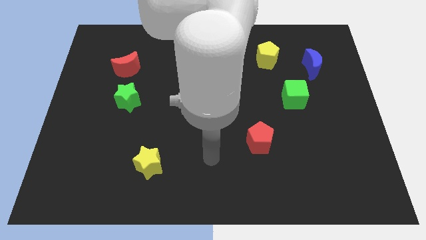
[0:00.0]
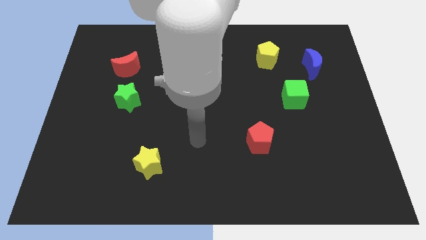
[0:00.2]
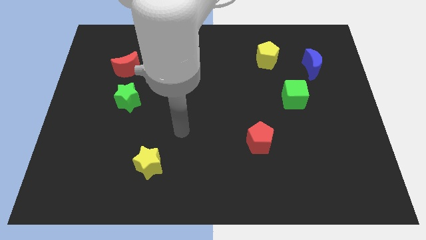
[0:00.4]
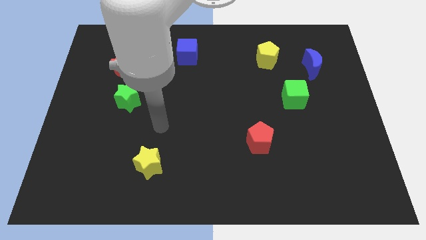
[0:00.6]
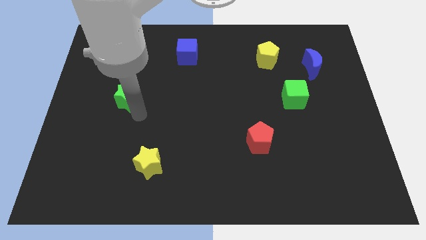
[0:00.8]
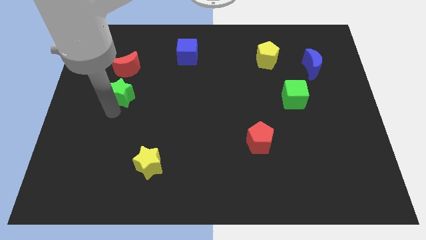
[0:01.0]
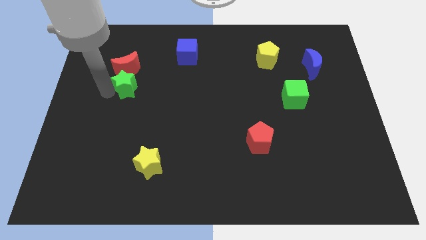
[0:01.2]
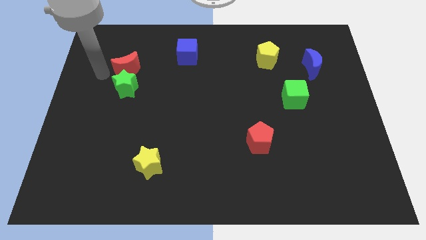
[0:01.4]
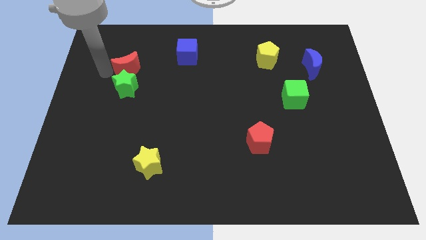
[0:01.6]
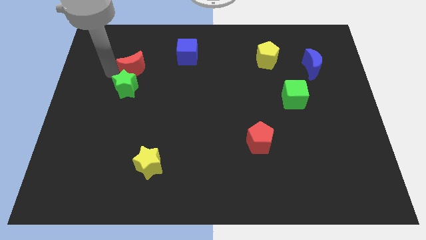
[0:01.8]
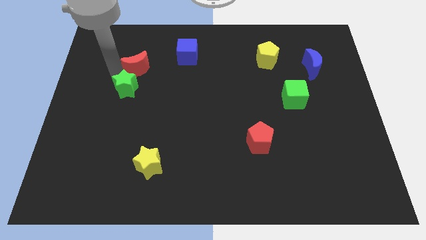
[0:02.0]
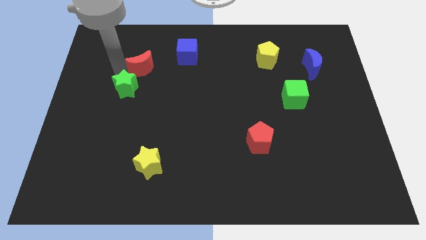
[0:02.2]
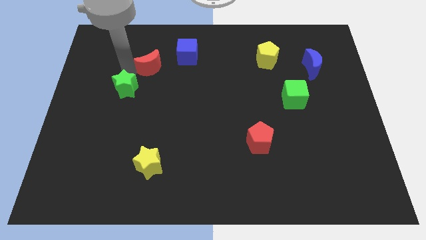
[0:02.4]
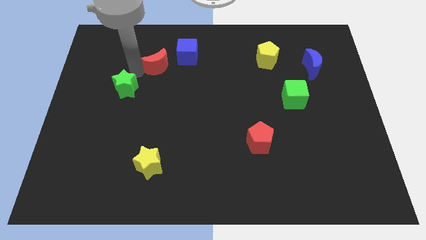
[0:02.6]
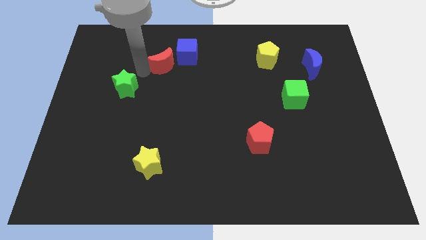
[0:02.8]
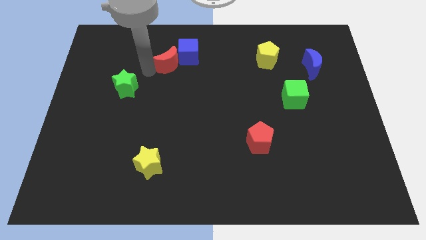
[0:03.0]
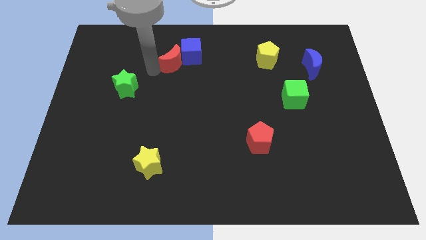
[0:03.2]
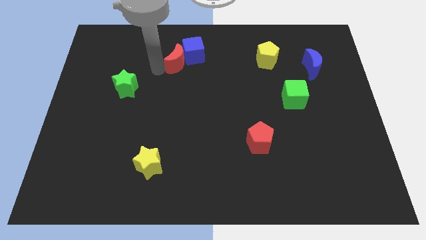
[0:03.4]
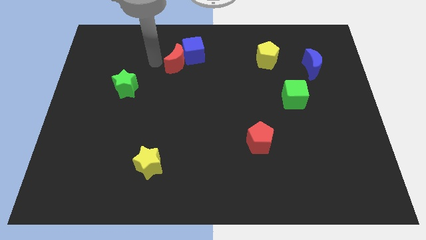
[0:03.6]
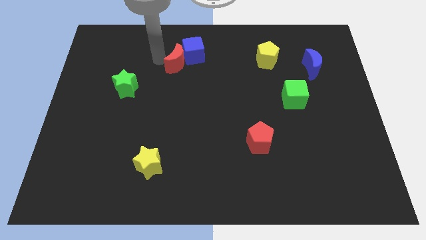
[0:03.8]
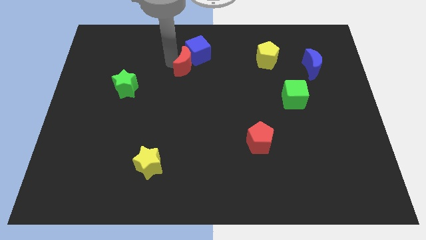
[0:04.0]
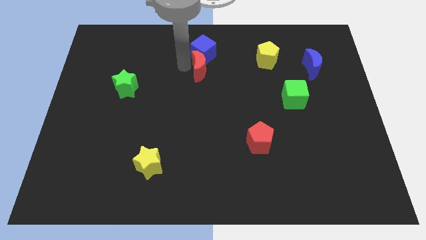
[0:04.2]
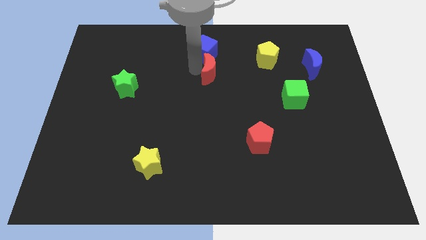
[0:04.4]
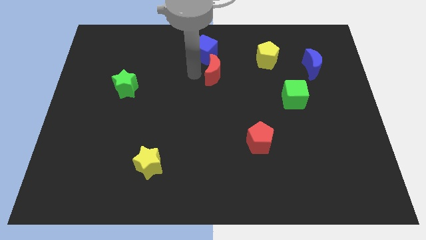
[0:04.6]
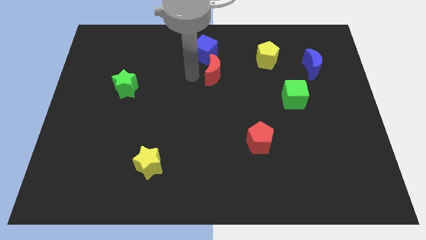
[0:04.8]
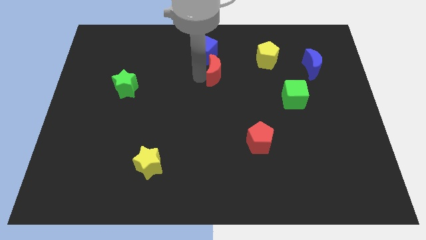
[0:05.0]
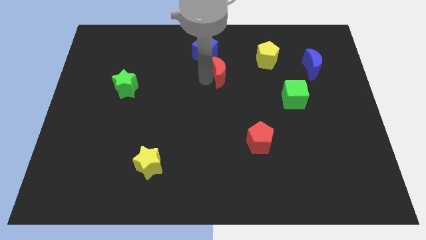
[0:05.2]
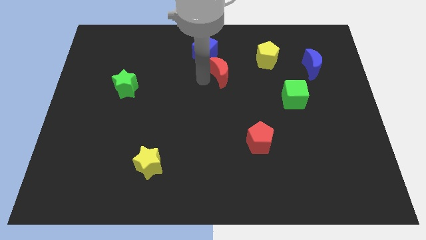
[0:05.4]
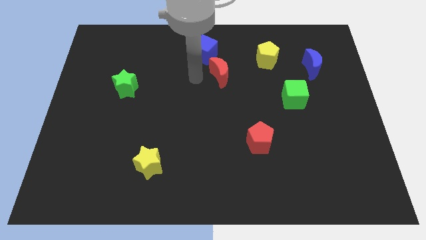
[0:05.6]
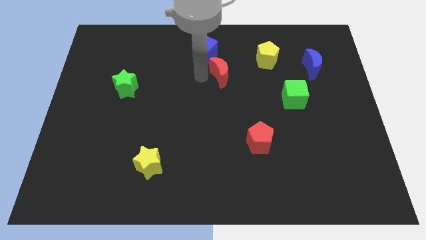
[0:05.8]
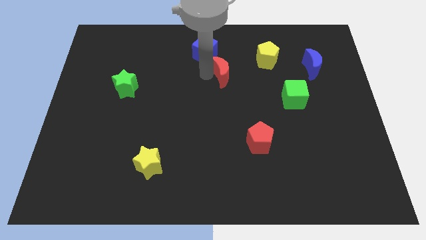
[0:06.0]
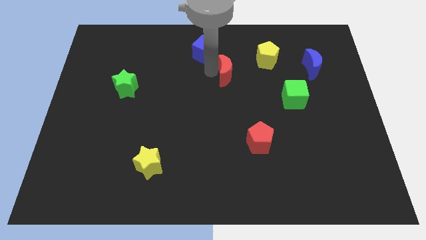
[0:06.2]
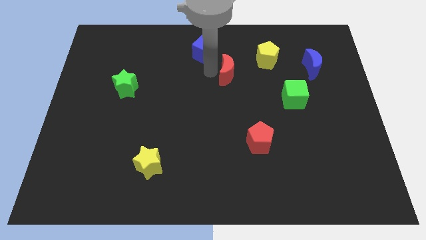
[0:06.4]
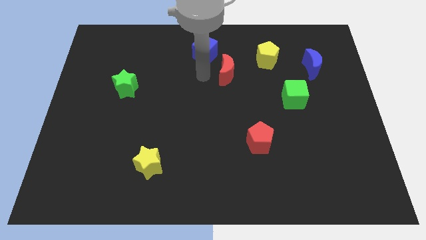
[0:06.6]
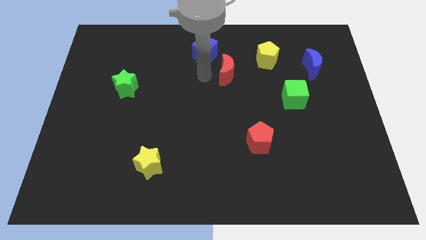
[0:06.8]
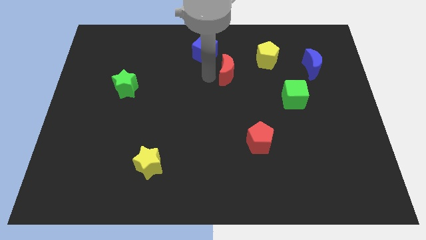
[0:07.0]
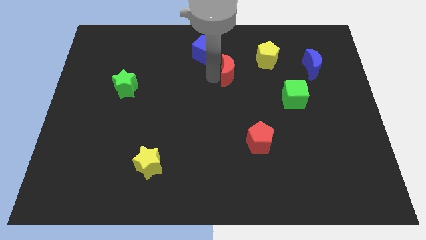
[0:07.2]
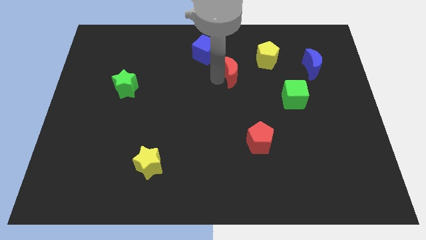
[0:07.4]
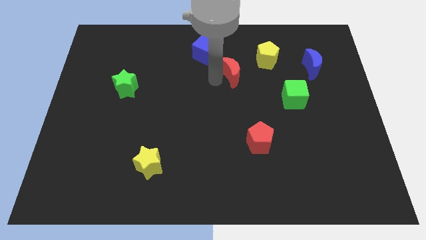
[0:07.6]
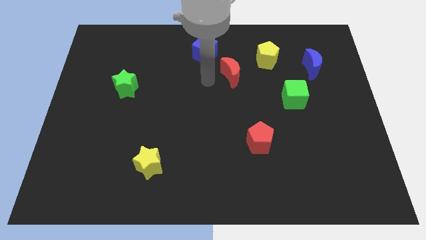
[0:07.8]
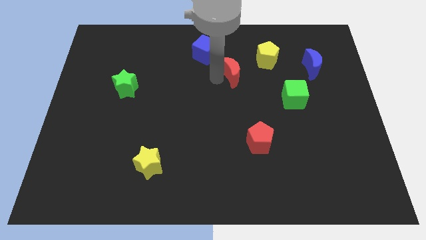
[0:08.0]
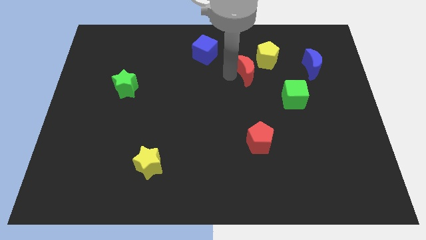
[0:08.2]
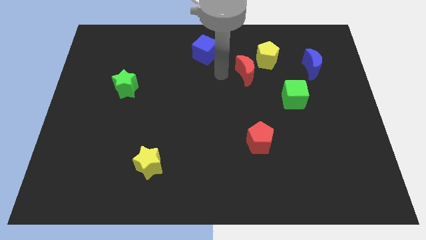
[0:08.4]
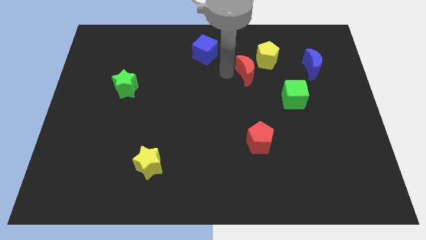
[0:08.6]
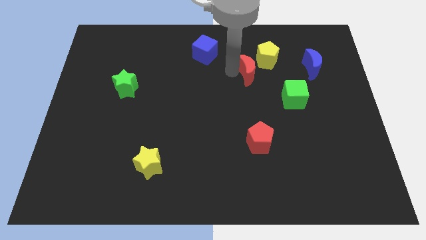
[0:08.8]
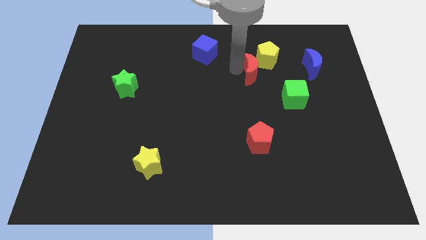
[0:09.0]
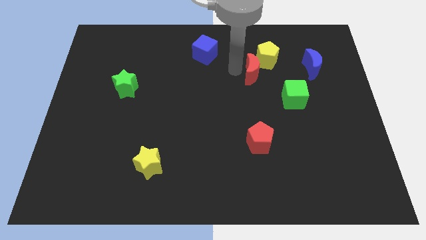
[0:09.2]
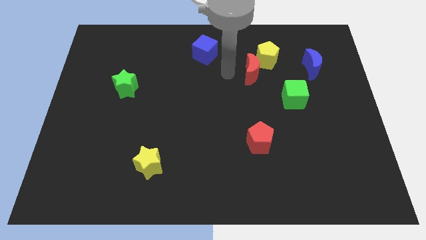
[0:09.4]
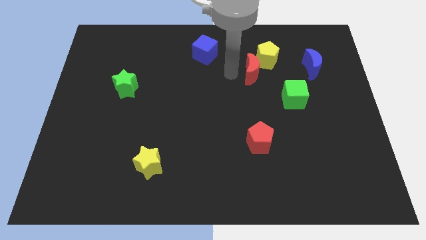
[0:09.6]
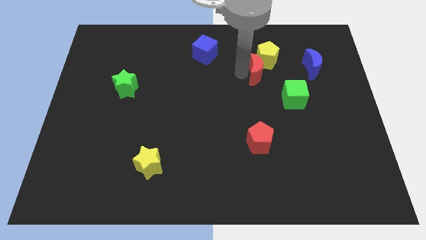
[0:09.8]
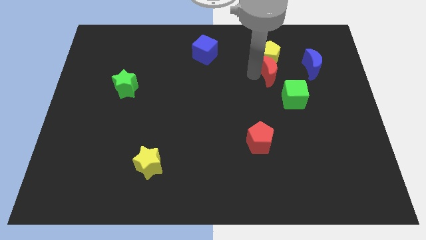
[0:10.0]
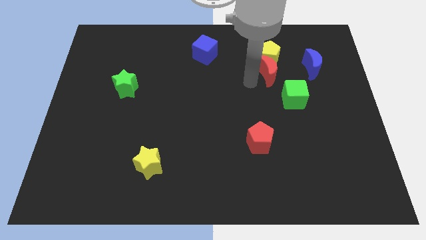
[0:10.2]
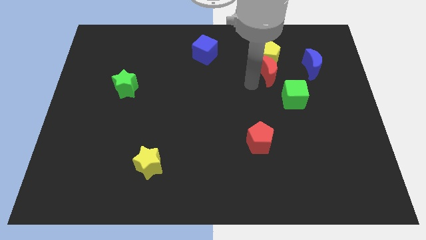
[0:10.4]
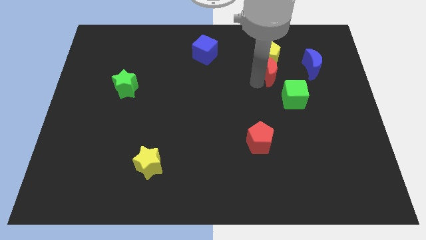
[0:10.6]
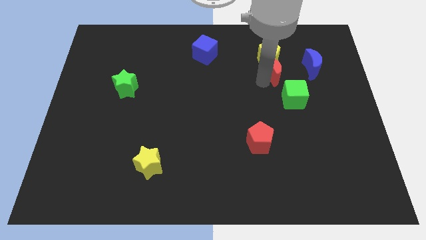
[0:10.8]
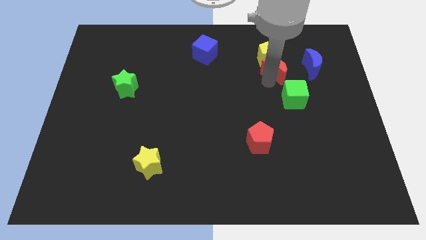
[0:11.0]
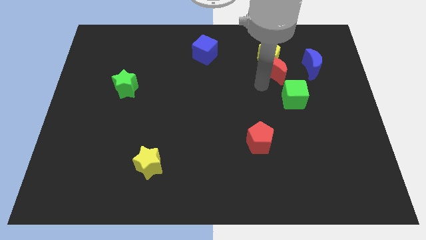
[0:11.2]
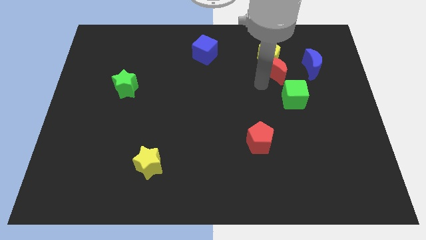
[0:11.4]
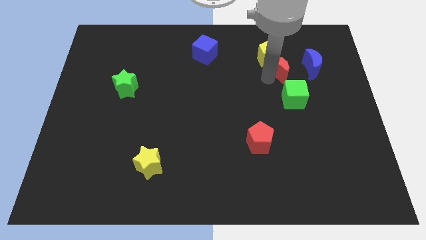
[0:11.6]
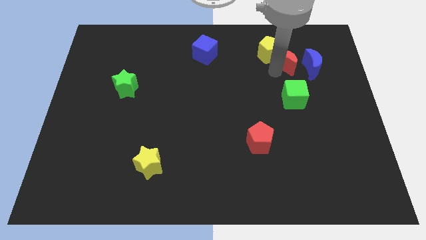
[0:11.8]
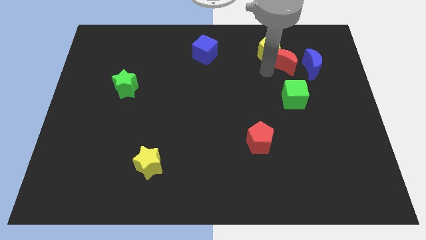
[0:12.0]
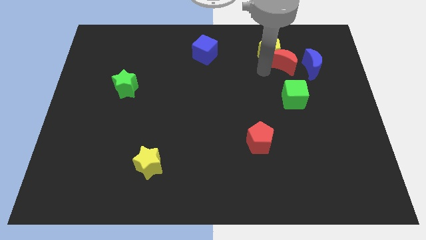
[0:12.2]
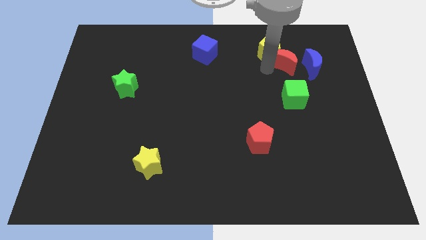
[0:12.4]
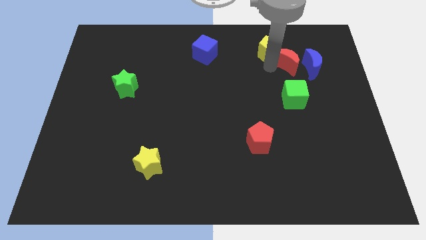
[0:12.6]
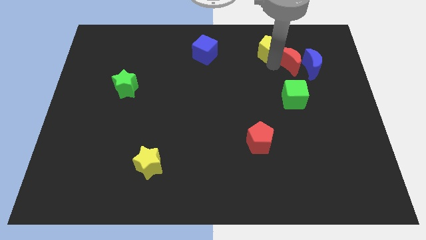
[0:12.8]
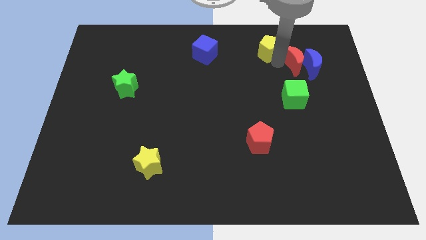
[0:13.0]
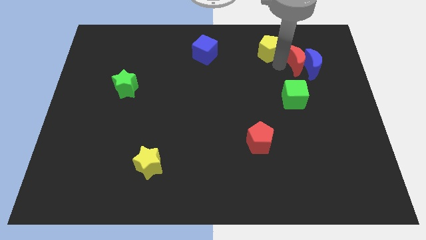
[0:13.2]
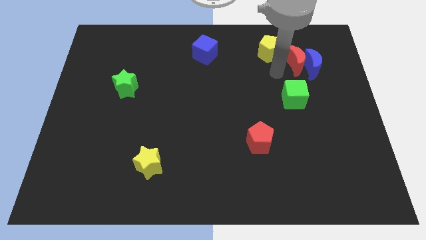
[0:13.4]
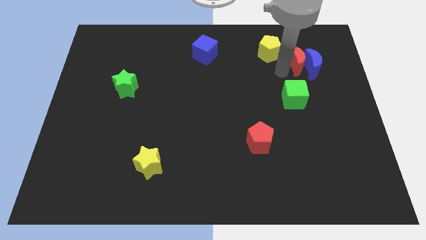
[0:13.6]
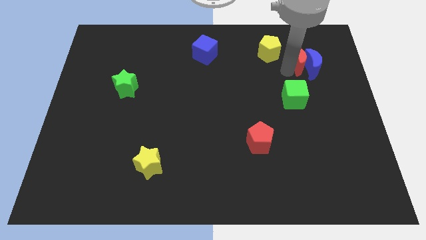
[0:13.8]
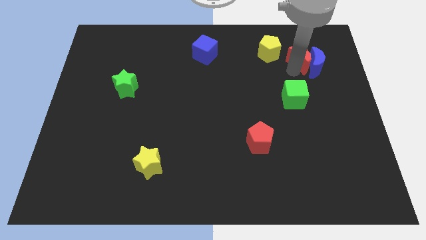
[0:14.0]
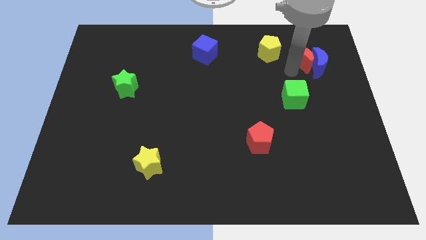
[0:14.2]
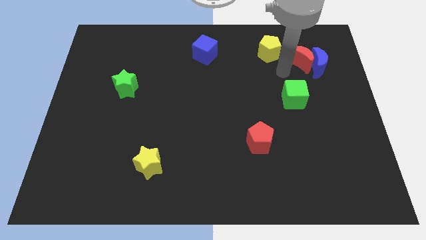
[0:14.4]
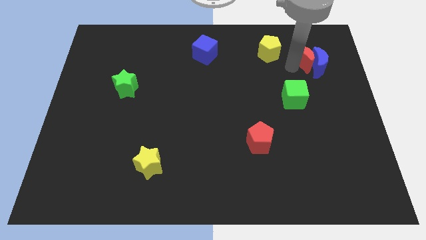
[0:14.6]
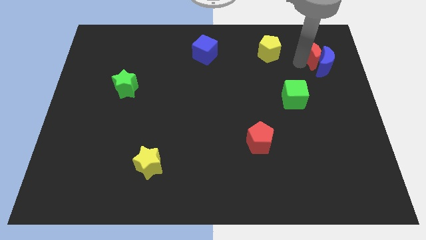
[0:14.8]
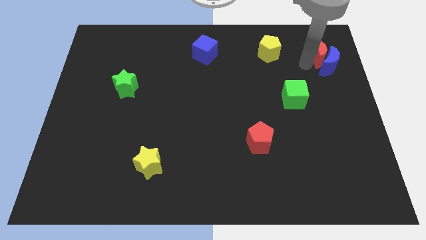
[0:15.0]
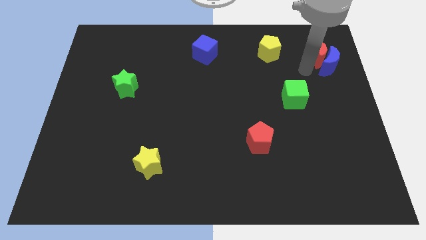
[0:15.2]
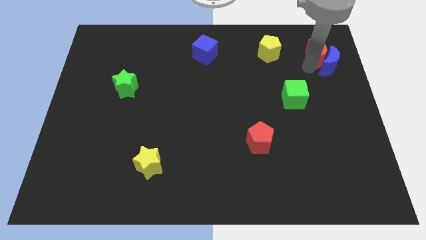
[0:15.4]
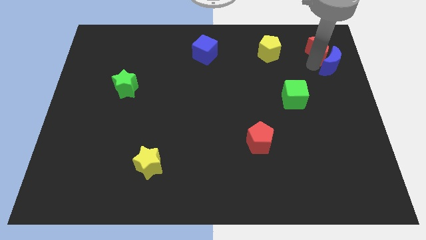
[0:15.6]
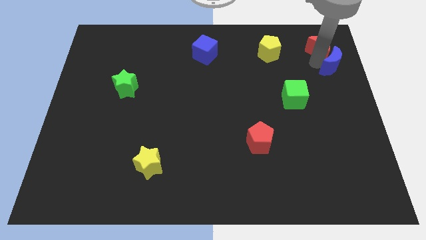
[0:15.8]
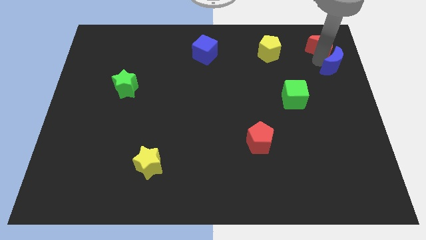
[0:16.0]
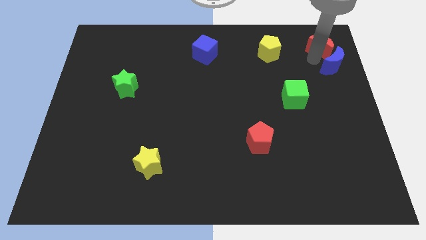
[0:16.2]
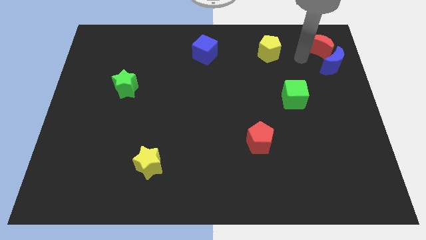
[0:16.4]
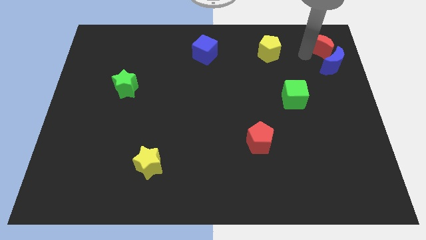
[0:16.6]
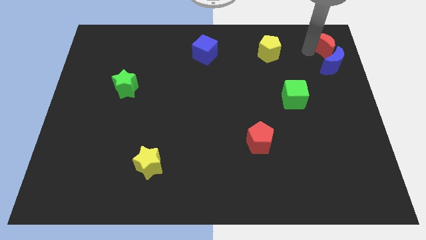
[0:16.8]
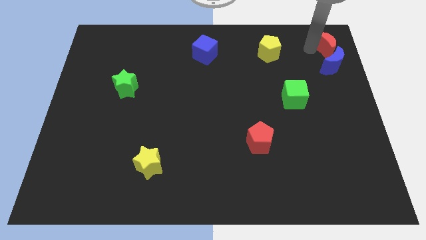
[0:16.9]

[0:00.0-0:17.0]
push the red moon to the top right
